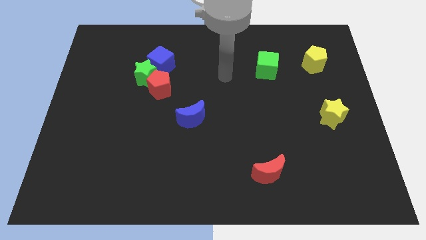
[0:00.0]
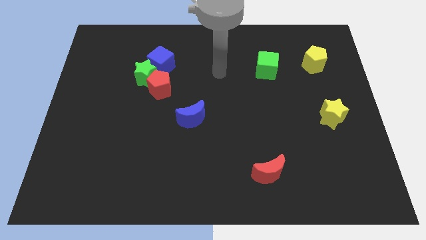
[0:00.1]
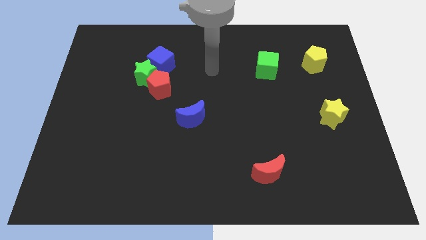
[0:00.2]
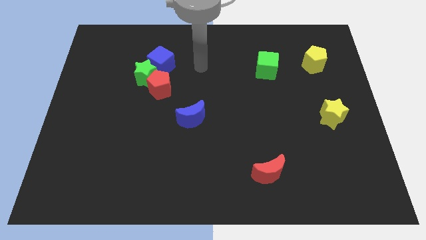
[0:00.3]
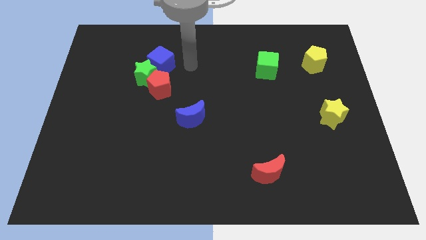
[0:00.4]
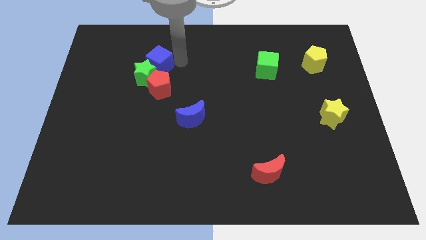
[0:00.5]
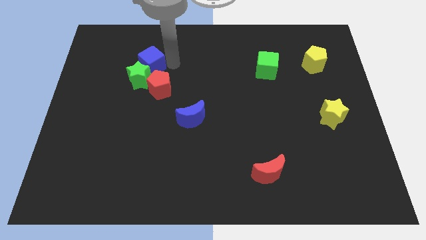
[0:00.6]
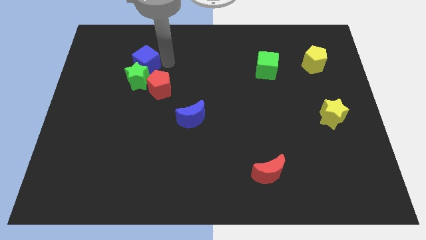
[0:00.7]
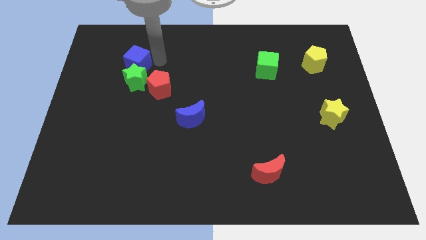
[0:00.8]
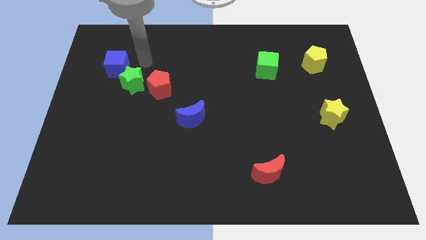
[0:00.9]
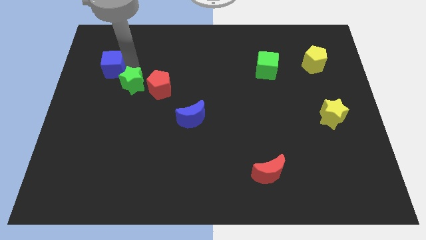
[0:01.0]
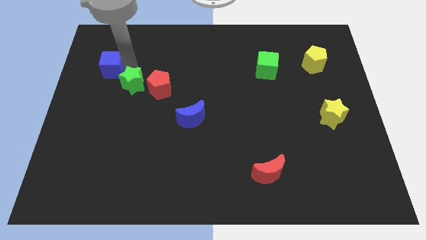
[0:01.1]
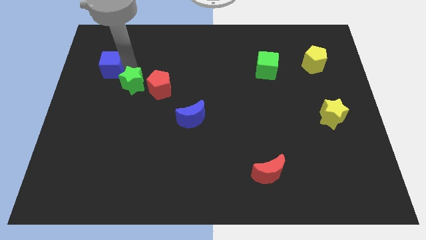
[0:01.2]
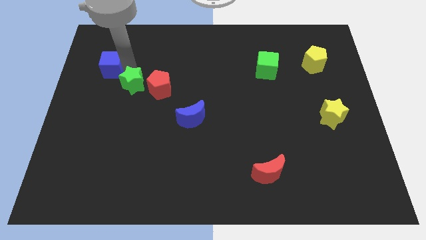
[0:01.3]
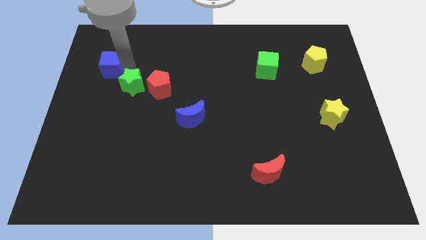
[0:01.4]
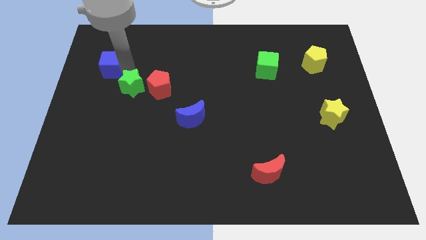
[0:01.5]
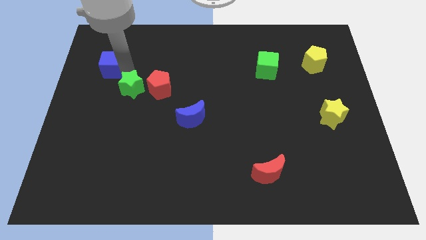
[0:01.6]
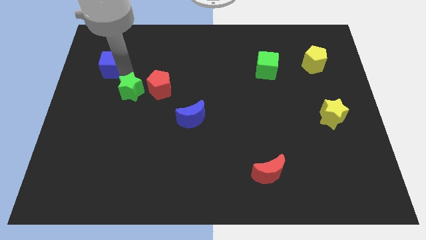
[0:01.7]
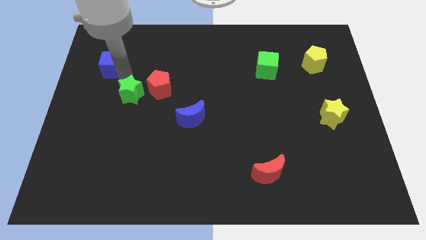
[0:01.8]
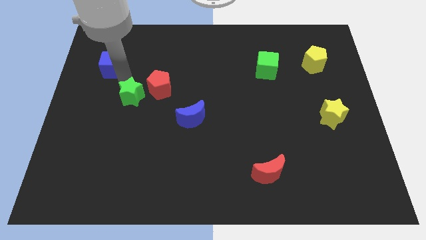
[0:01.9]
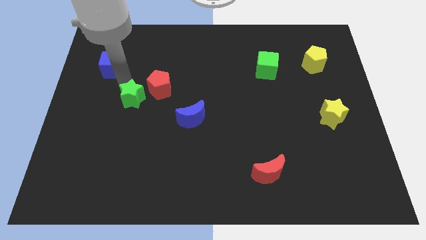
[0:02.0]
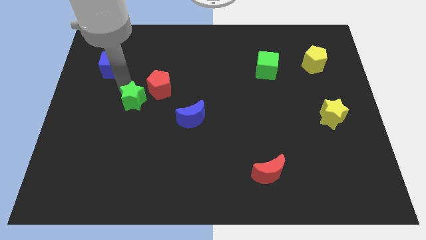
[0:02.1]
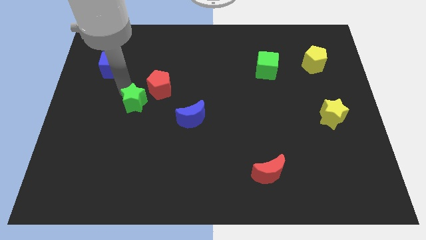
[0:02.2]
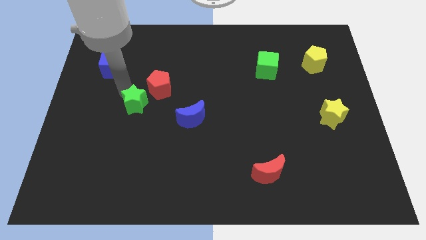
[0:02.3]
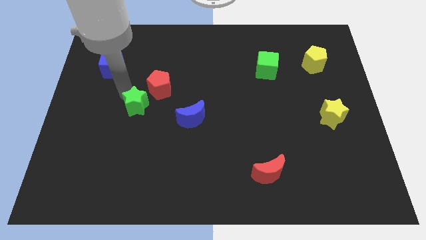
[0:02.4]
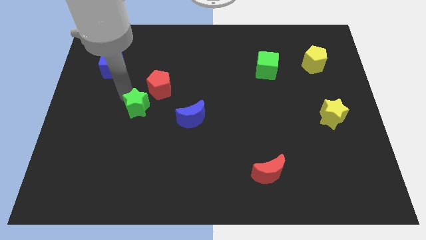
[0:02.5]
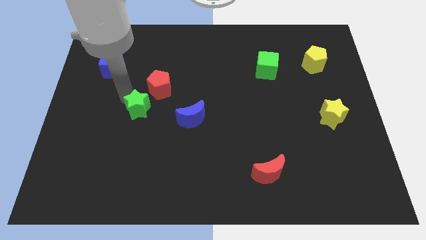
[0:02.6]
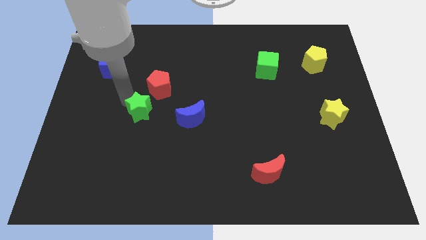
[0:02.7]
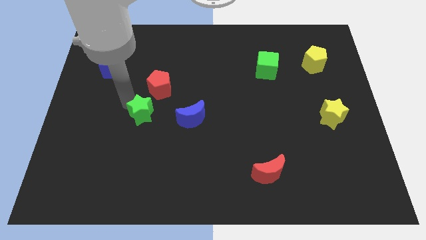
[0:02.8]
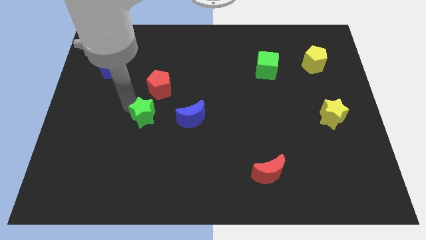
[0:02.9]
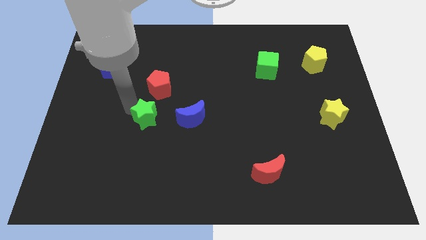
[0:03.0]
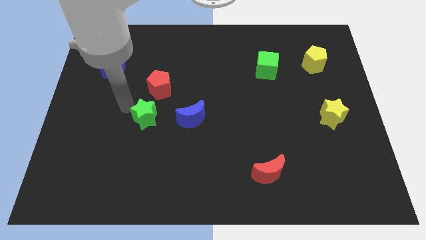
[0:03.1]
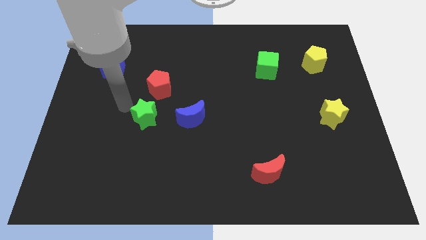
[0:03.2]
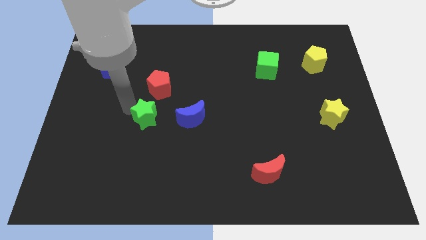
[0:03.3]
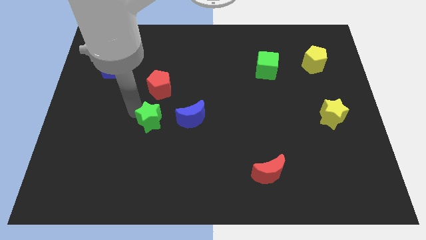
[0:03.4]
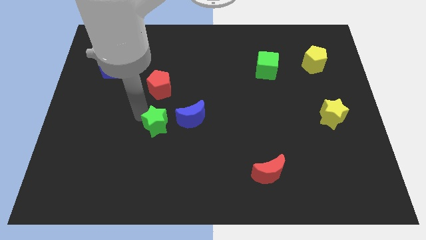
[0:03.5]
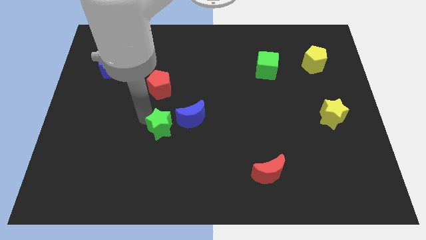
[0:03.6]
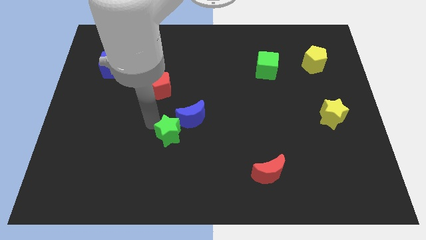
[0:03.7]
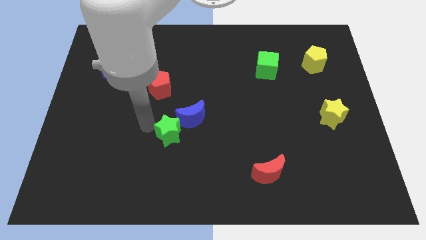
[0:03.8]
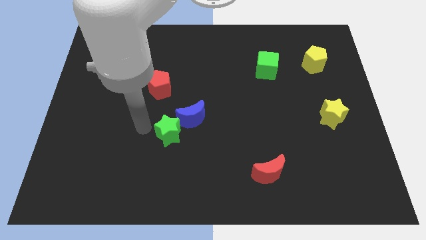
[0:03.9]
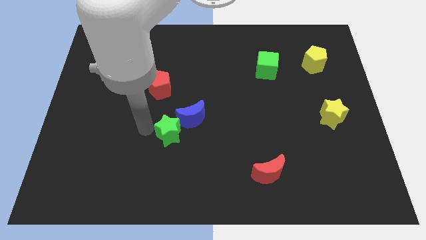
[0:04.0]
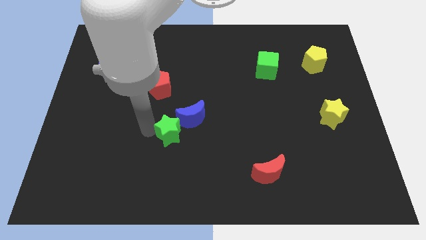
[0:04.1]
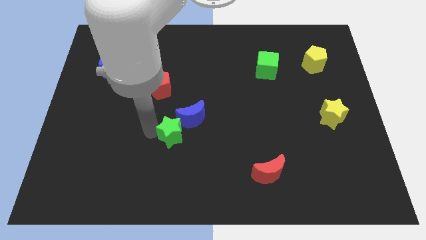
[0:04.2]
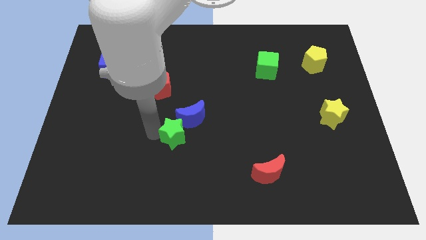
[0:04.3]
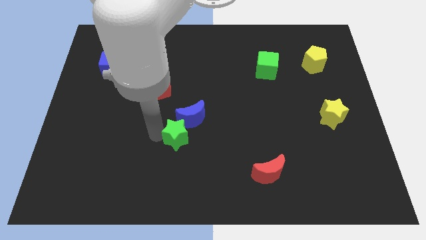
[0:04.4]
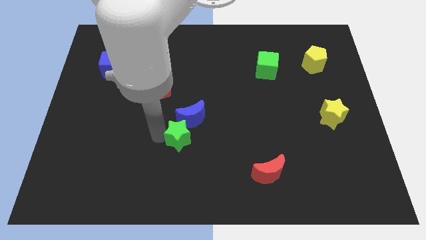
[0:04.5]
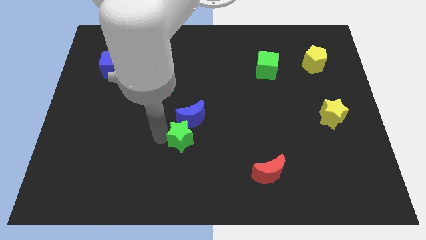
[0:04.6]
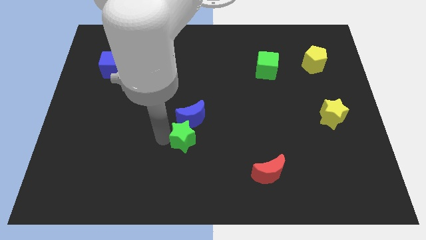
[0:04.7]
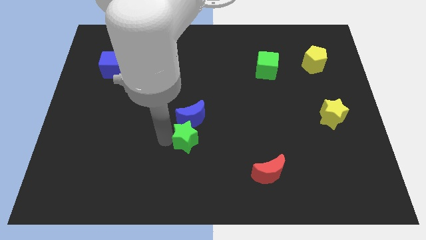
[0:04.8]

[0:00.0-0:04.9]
slide the green star downwards and to the right

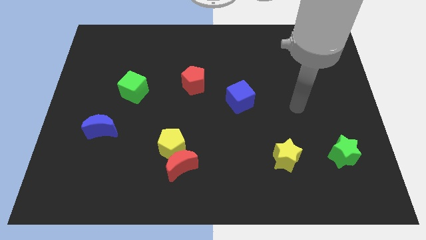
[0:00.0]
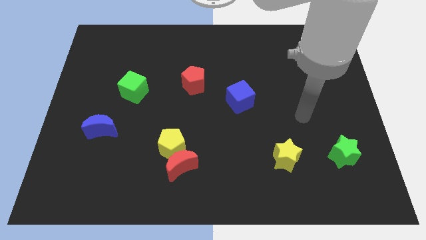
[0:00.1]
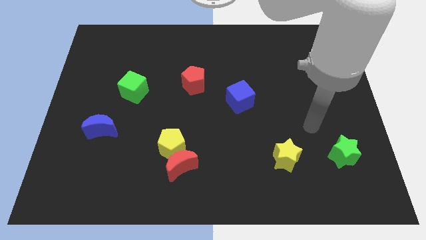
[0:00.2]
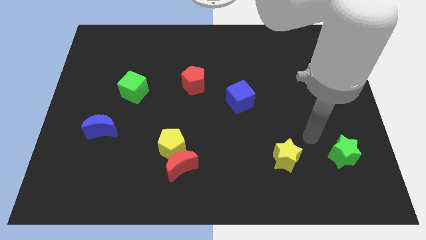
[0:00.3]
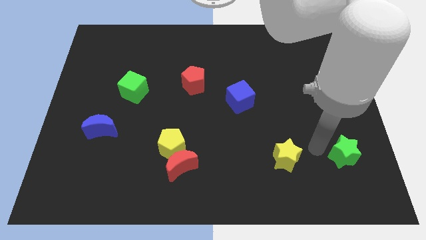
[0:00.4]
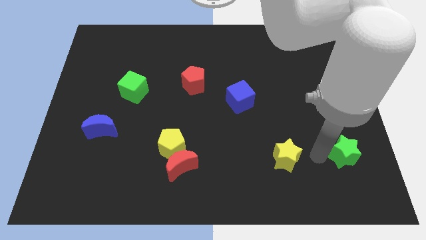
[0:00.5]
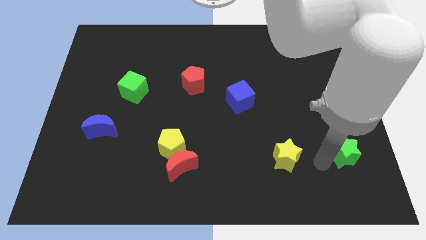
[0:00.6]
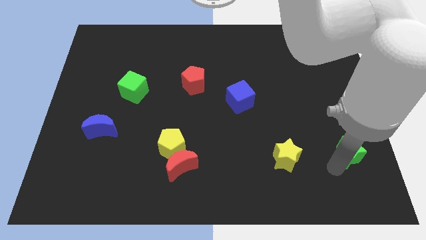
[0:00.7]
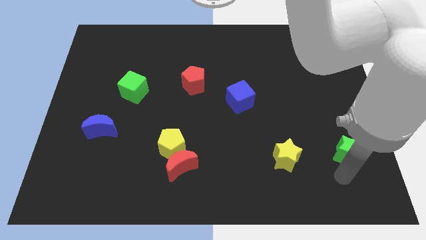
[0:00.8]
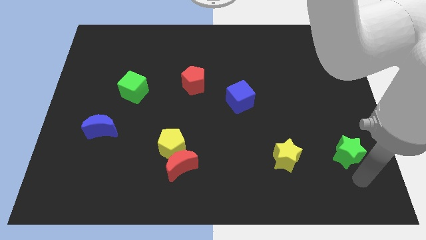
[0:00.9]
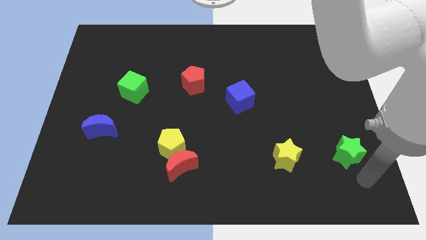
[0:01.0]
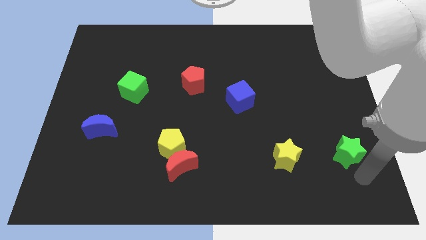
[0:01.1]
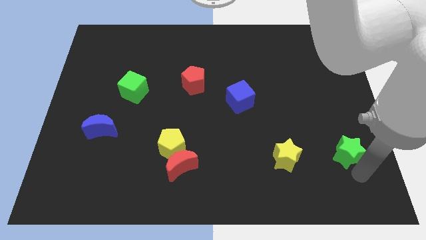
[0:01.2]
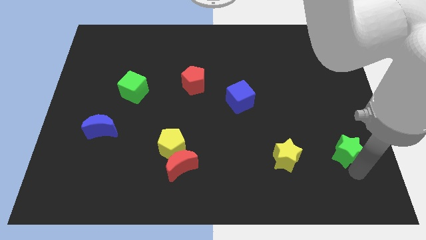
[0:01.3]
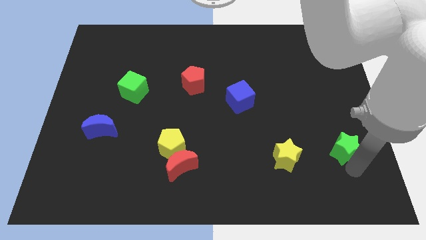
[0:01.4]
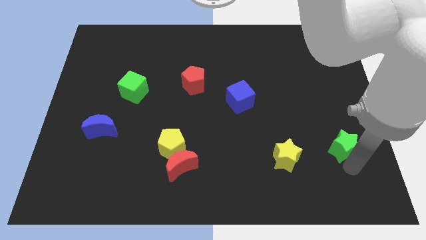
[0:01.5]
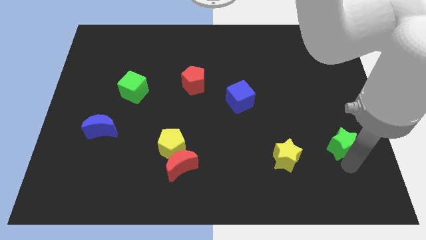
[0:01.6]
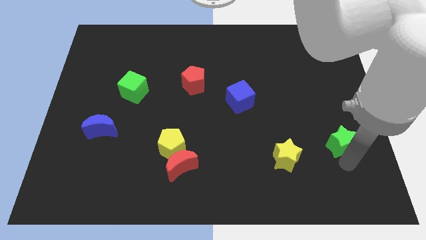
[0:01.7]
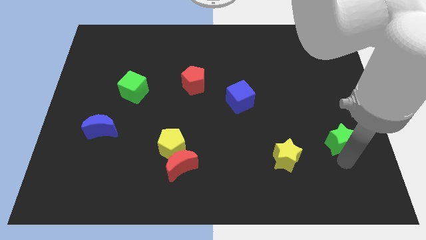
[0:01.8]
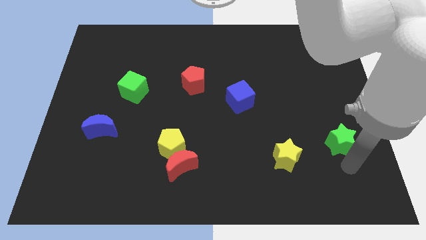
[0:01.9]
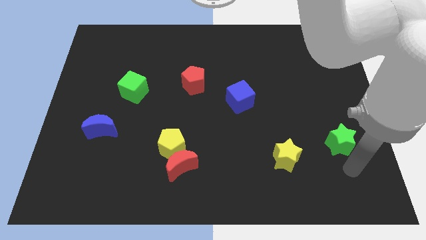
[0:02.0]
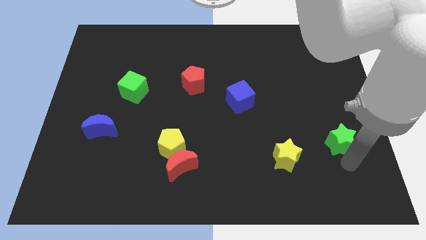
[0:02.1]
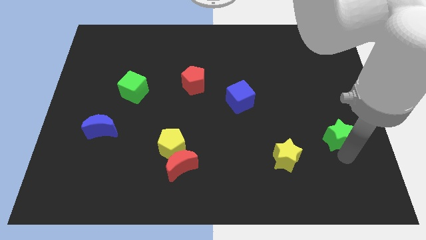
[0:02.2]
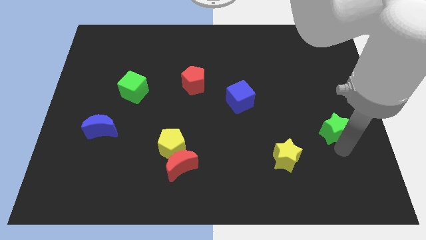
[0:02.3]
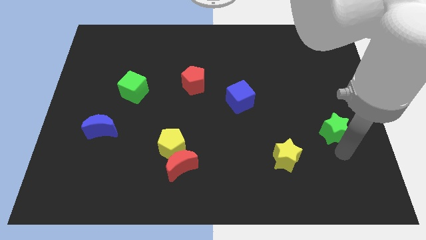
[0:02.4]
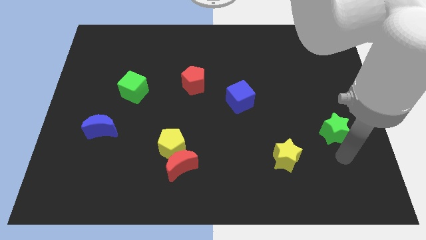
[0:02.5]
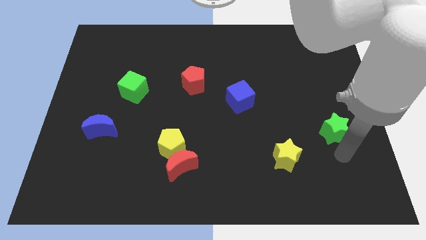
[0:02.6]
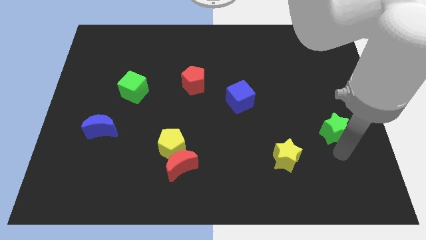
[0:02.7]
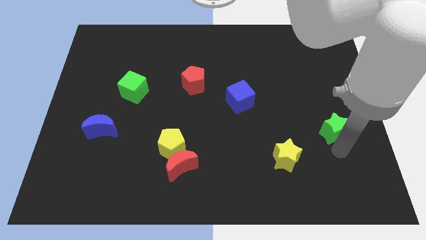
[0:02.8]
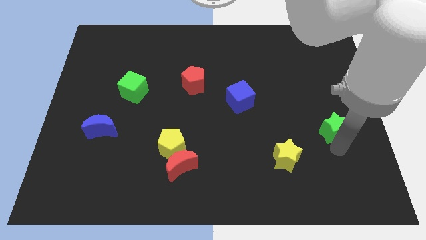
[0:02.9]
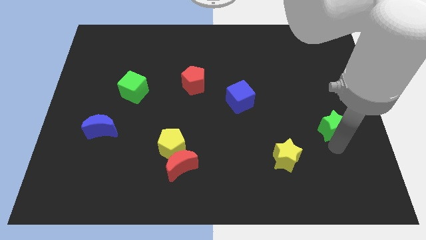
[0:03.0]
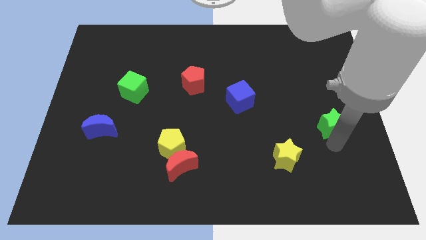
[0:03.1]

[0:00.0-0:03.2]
slightly slide the green star up
